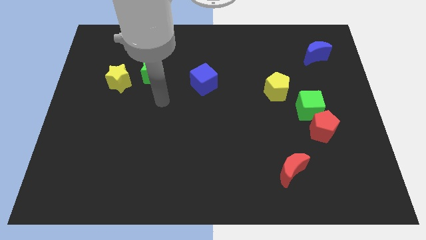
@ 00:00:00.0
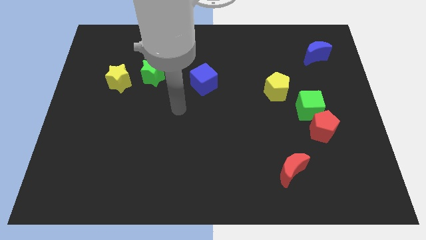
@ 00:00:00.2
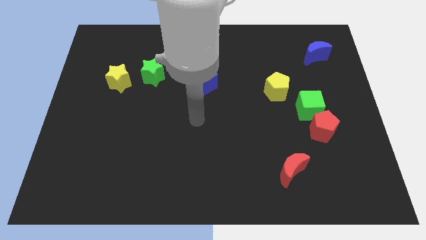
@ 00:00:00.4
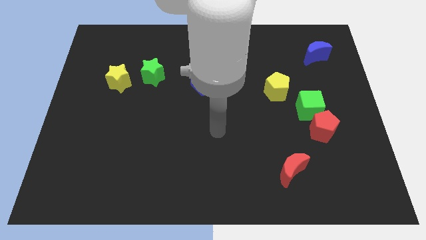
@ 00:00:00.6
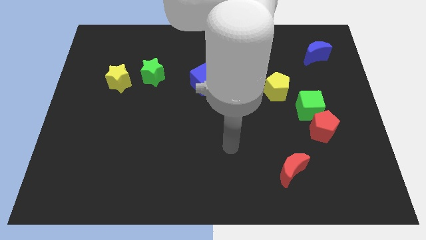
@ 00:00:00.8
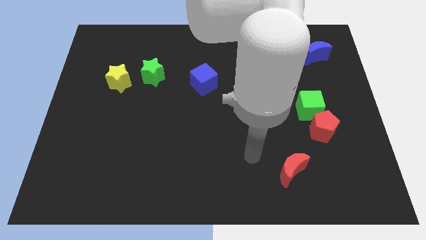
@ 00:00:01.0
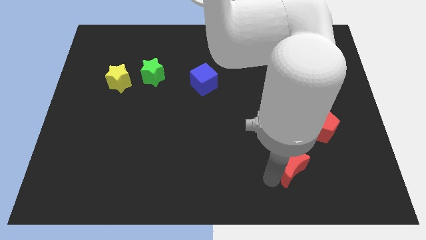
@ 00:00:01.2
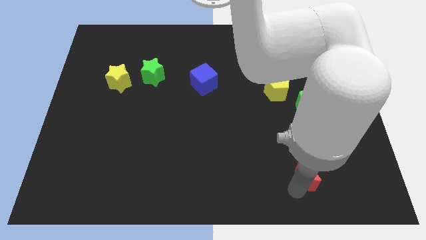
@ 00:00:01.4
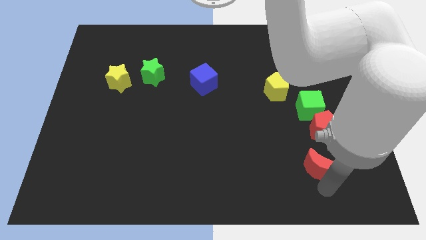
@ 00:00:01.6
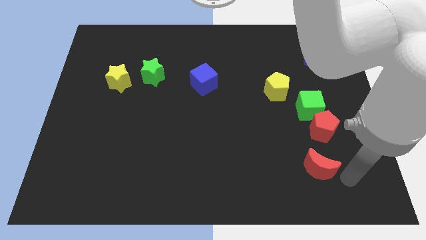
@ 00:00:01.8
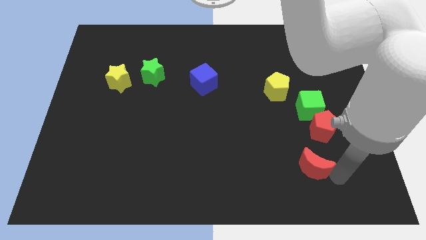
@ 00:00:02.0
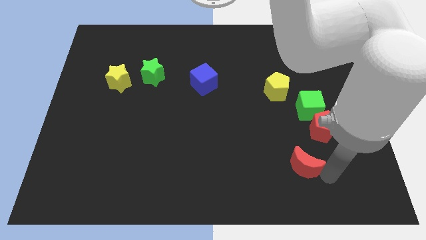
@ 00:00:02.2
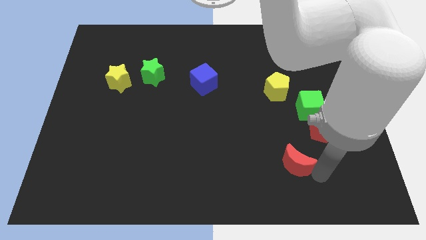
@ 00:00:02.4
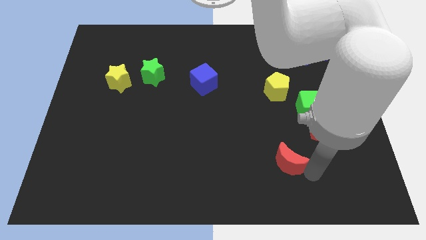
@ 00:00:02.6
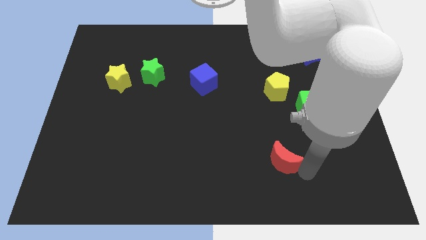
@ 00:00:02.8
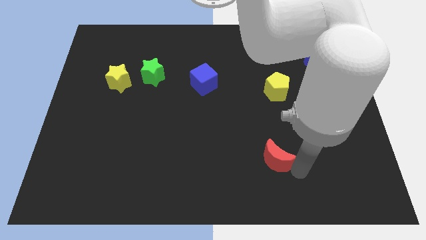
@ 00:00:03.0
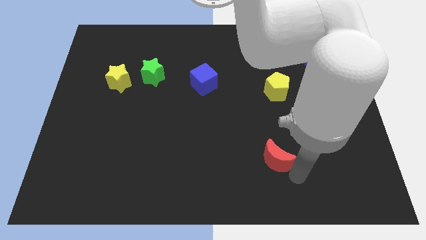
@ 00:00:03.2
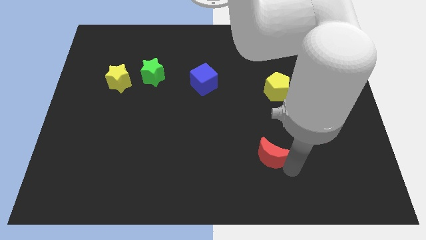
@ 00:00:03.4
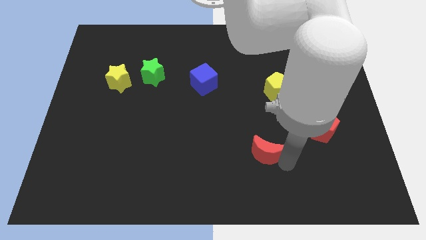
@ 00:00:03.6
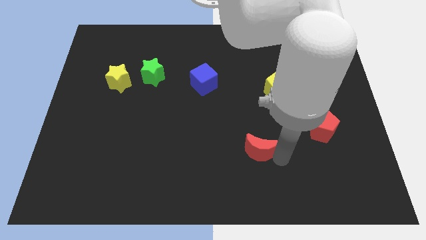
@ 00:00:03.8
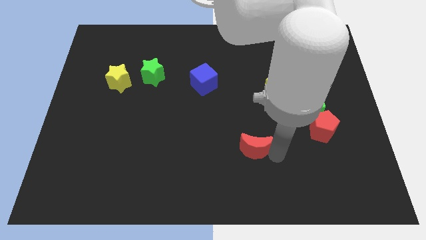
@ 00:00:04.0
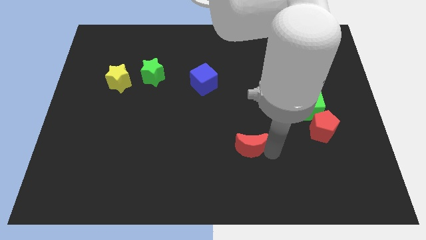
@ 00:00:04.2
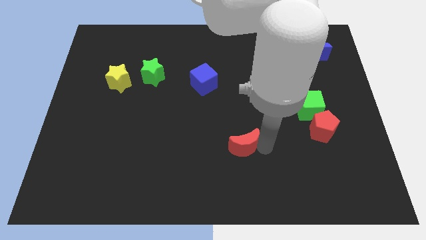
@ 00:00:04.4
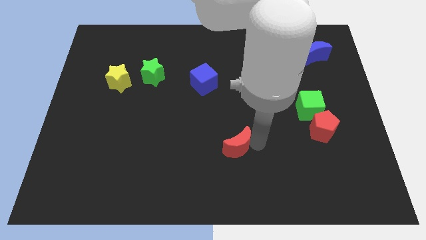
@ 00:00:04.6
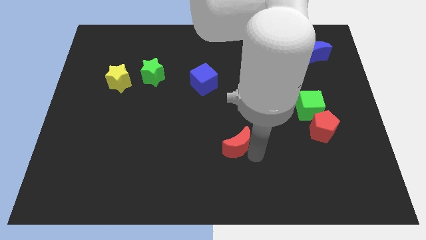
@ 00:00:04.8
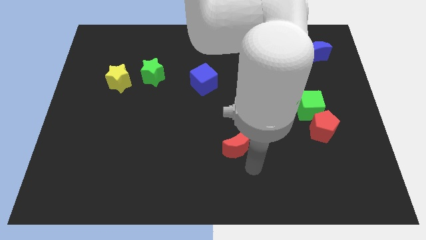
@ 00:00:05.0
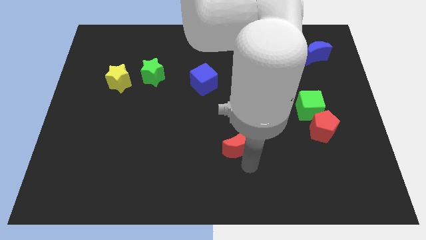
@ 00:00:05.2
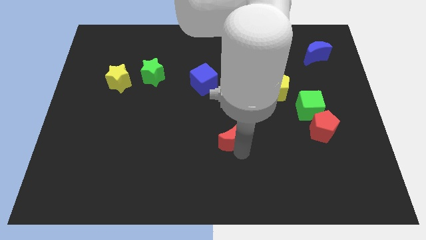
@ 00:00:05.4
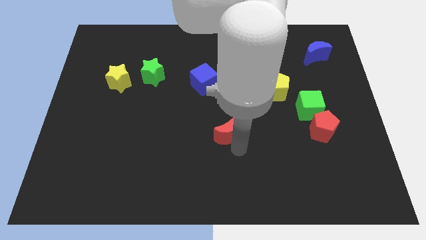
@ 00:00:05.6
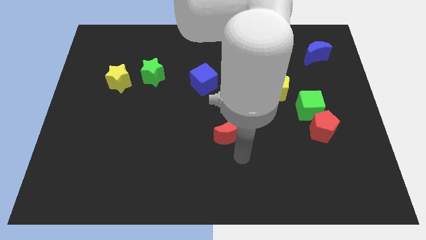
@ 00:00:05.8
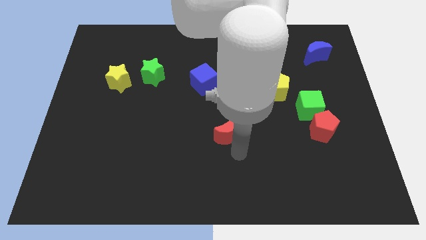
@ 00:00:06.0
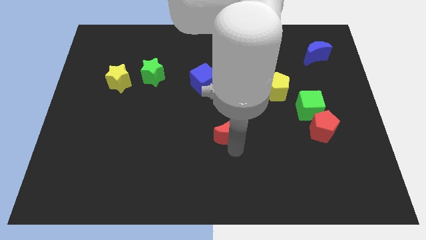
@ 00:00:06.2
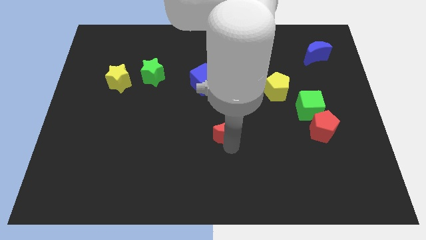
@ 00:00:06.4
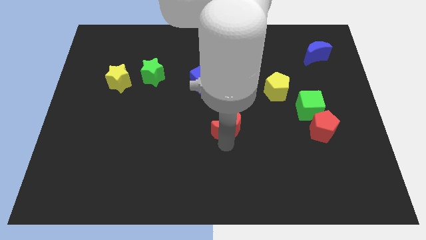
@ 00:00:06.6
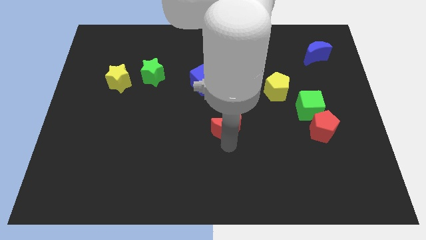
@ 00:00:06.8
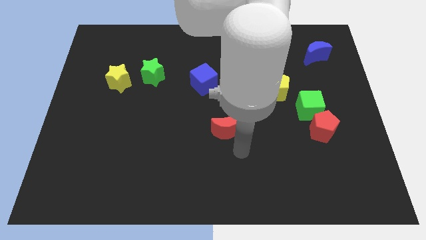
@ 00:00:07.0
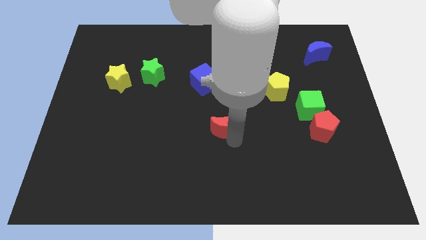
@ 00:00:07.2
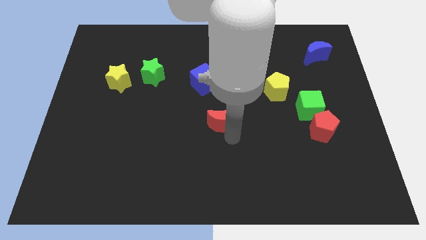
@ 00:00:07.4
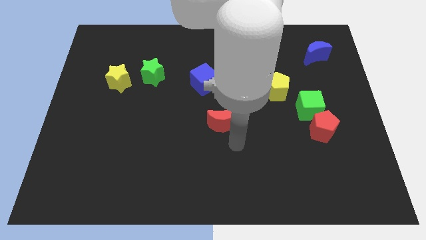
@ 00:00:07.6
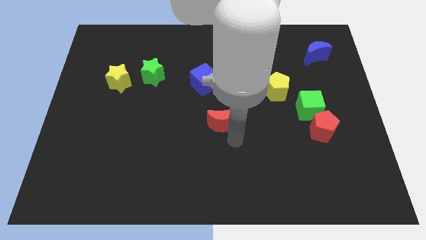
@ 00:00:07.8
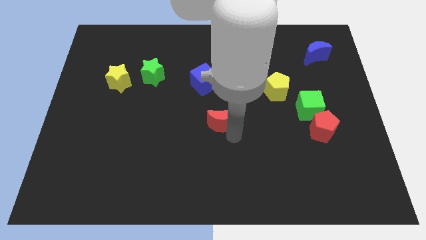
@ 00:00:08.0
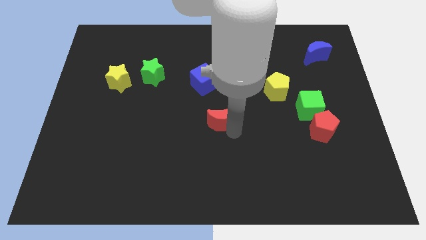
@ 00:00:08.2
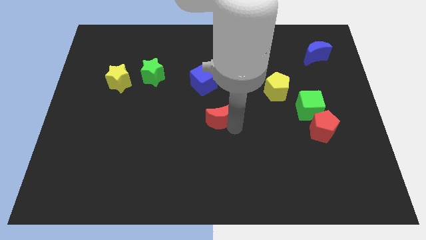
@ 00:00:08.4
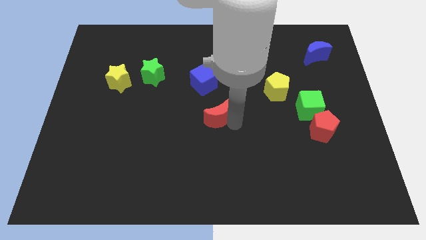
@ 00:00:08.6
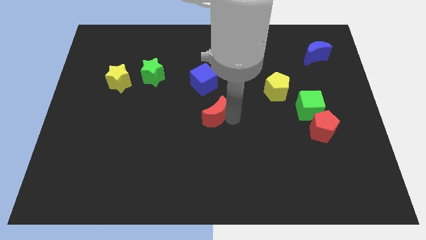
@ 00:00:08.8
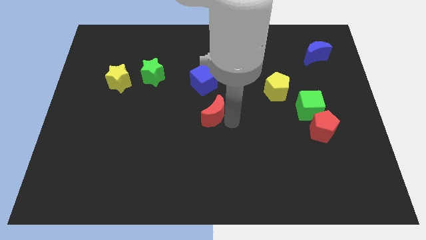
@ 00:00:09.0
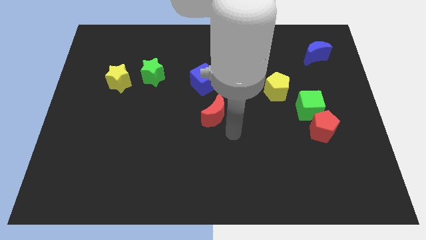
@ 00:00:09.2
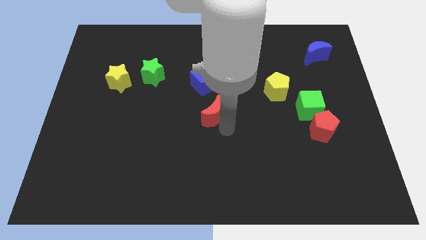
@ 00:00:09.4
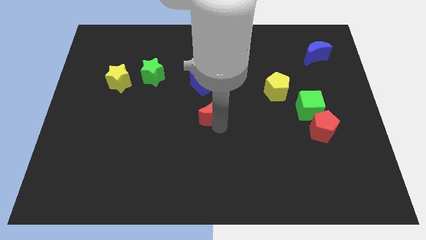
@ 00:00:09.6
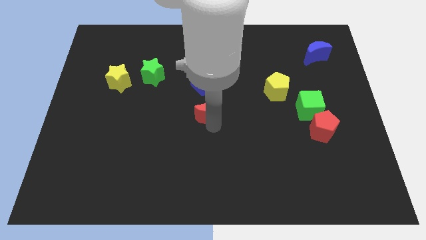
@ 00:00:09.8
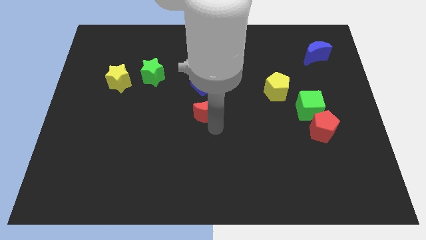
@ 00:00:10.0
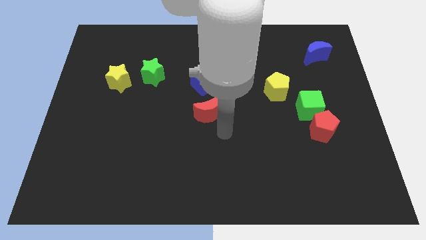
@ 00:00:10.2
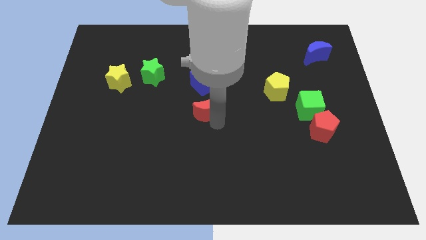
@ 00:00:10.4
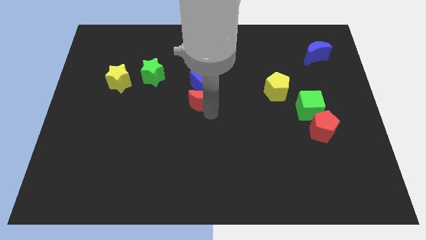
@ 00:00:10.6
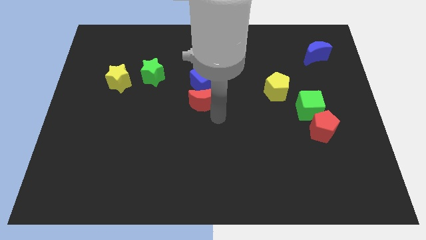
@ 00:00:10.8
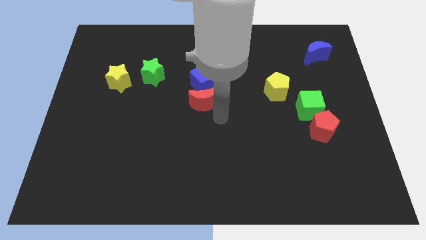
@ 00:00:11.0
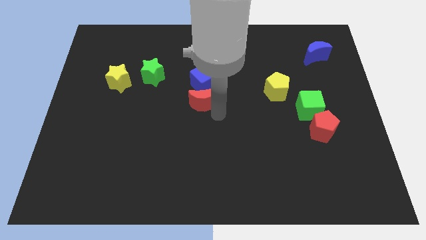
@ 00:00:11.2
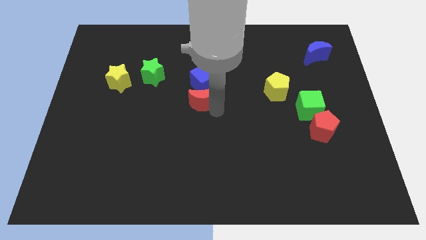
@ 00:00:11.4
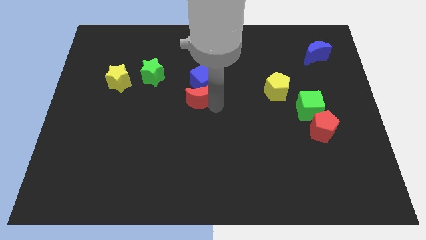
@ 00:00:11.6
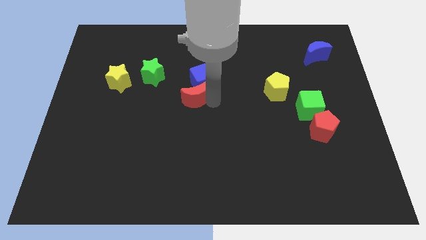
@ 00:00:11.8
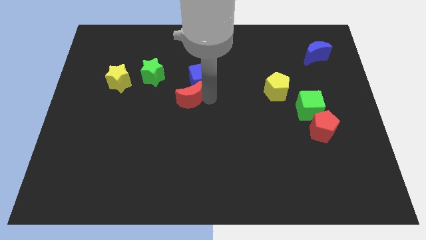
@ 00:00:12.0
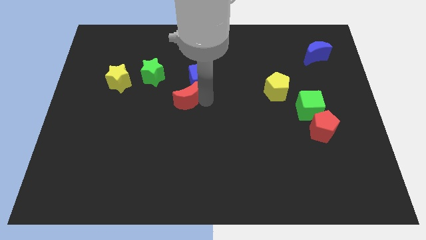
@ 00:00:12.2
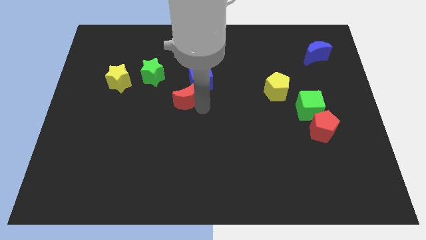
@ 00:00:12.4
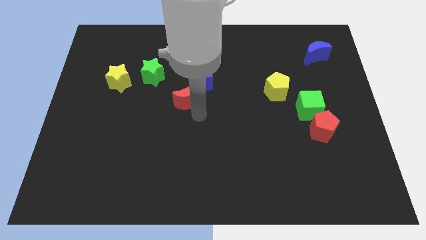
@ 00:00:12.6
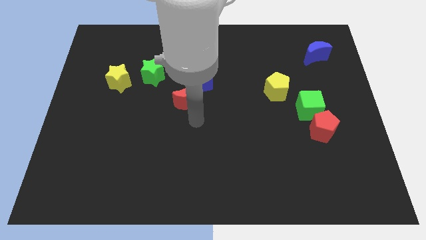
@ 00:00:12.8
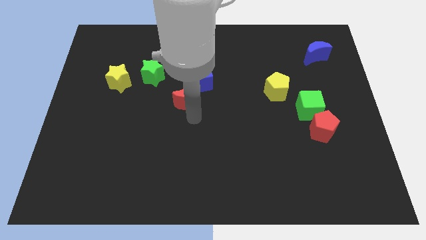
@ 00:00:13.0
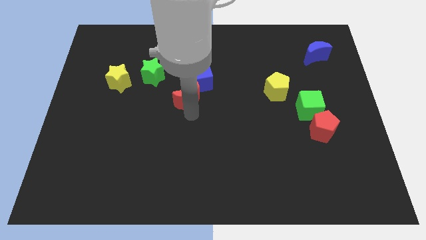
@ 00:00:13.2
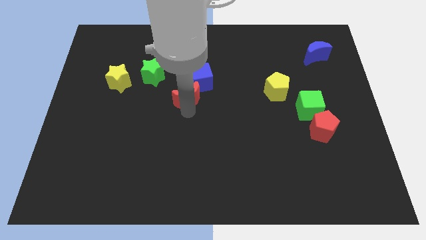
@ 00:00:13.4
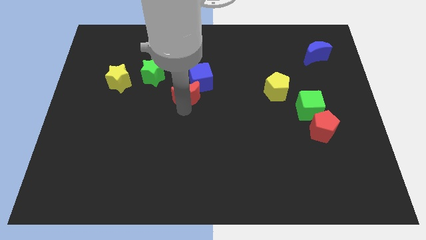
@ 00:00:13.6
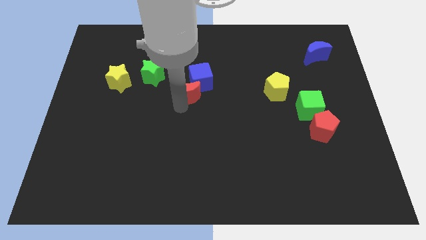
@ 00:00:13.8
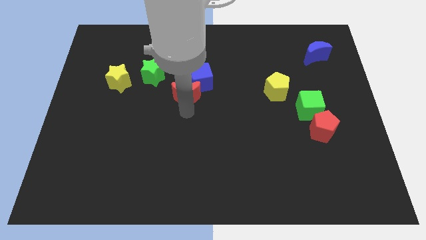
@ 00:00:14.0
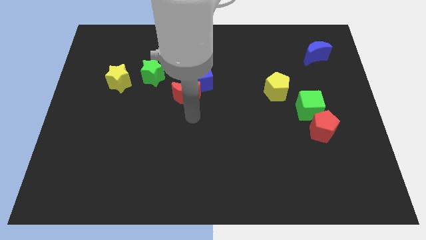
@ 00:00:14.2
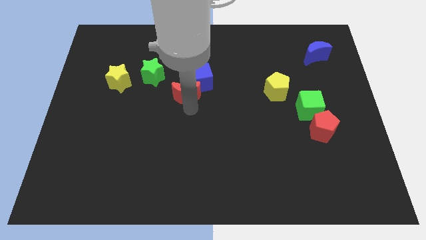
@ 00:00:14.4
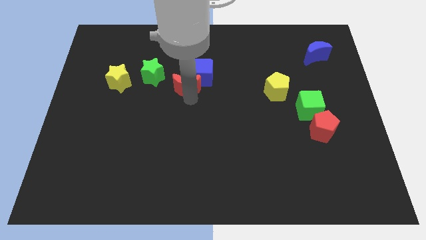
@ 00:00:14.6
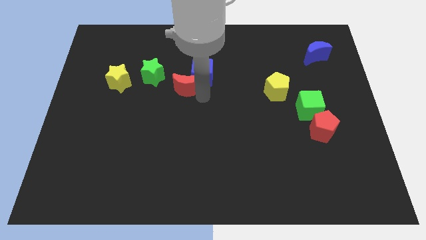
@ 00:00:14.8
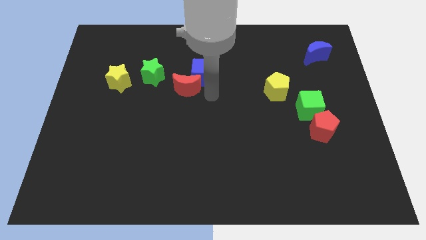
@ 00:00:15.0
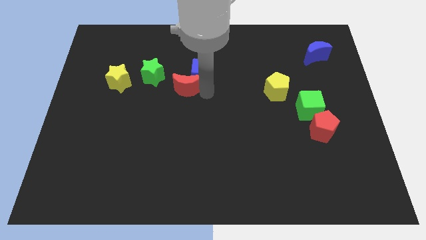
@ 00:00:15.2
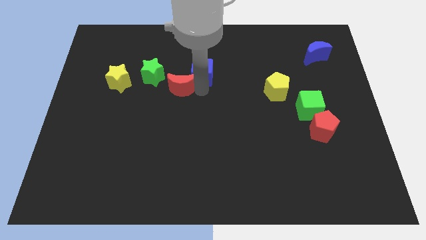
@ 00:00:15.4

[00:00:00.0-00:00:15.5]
slide the red moon right of the yellow star

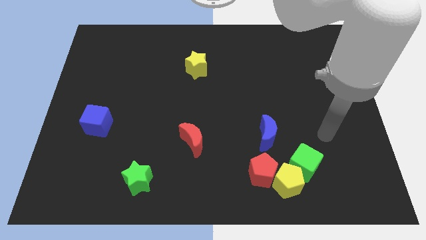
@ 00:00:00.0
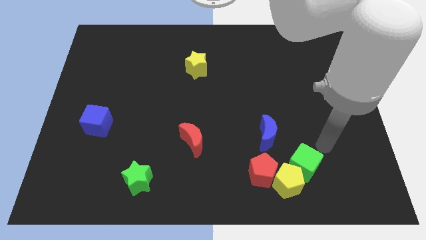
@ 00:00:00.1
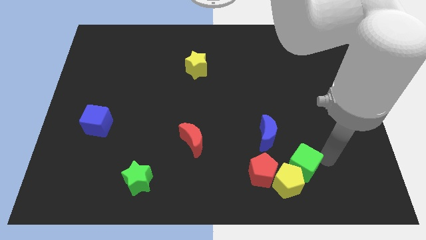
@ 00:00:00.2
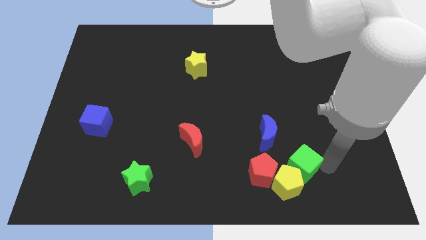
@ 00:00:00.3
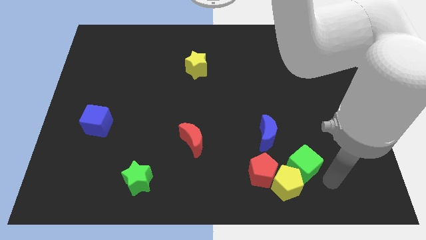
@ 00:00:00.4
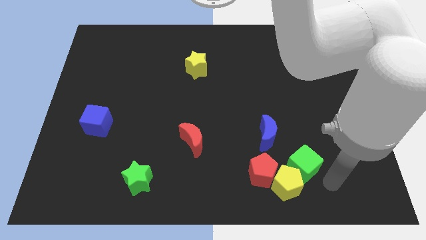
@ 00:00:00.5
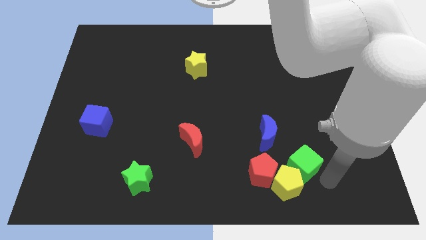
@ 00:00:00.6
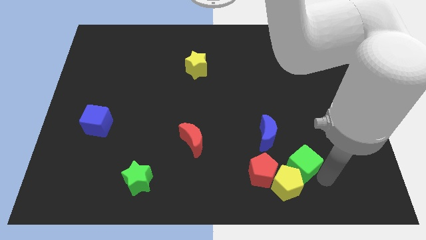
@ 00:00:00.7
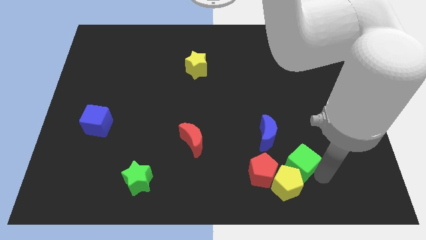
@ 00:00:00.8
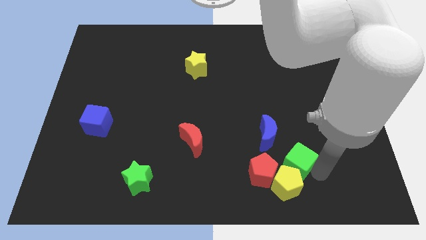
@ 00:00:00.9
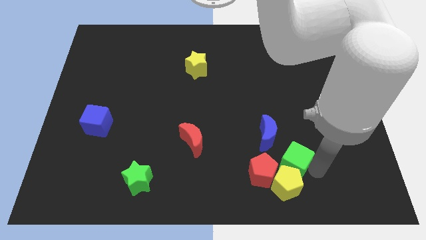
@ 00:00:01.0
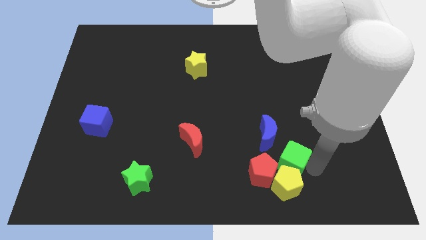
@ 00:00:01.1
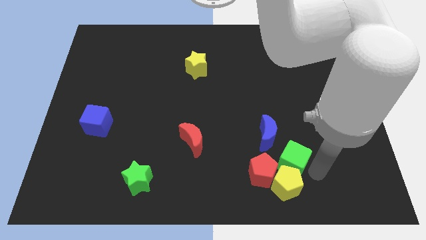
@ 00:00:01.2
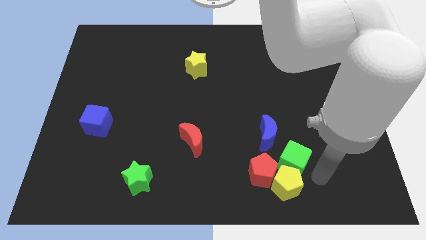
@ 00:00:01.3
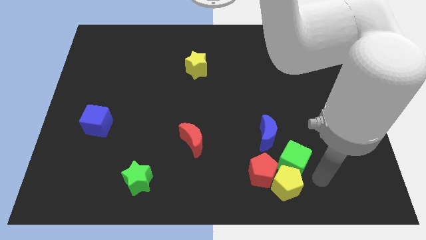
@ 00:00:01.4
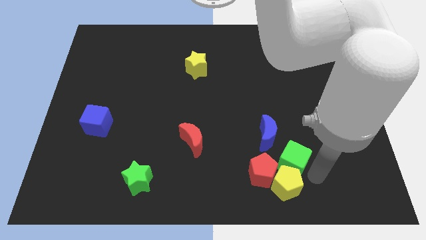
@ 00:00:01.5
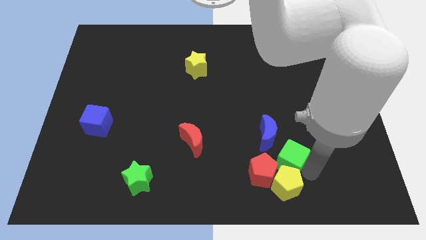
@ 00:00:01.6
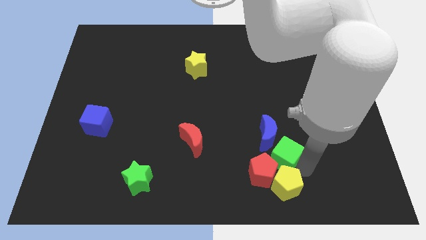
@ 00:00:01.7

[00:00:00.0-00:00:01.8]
put the green cube to the top left side of the yellow pentagon
